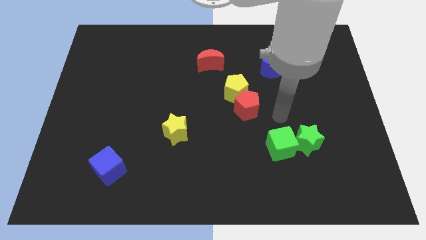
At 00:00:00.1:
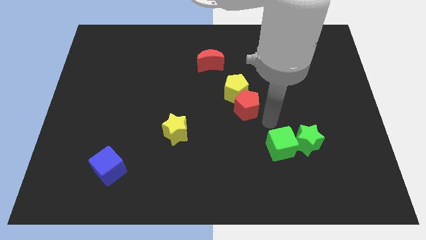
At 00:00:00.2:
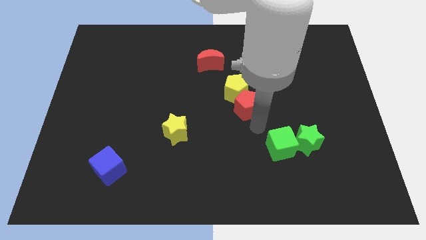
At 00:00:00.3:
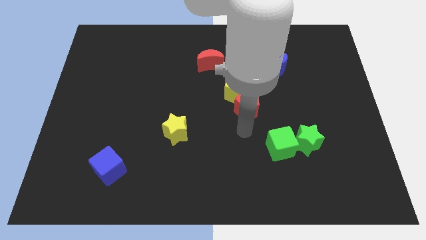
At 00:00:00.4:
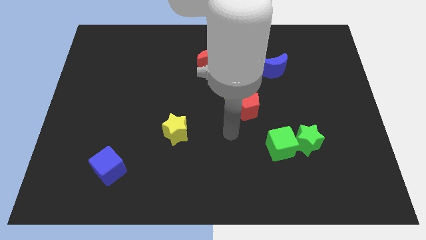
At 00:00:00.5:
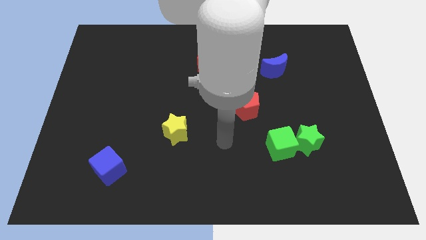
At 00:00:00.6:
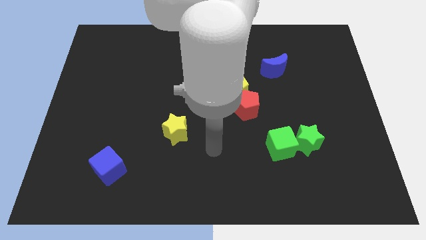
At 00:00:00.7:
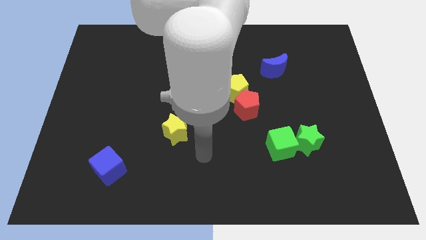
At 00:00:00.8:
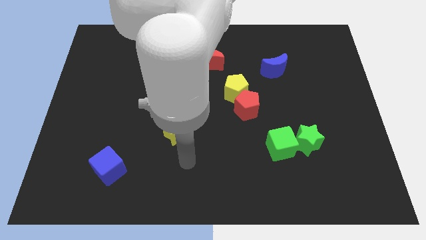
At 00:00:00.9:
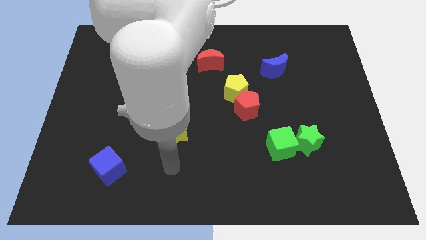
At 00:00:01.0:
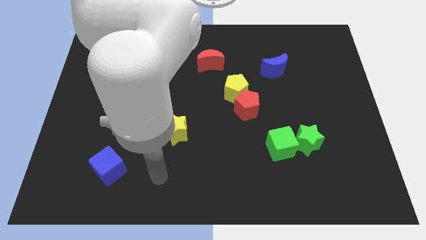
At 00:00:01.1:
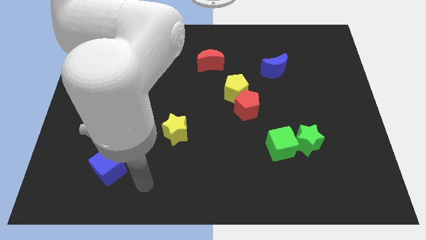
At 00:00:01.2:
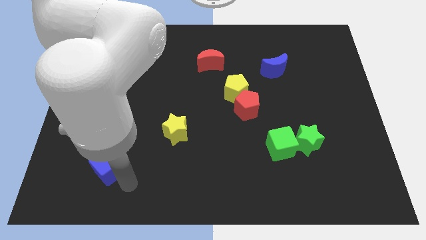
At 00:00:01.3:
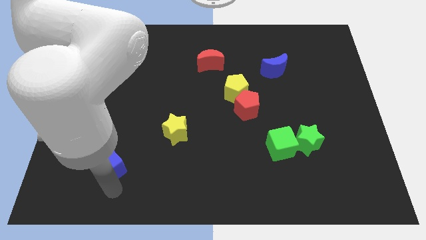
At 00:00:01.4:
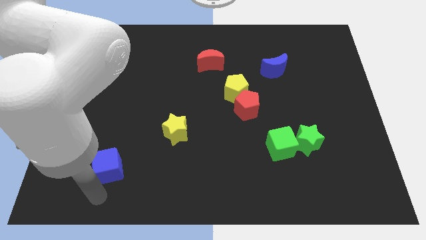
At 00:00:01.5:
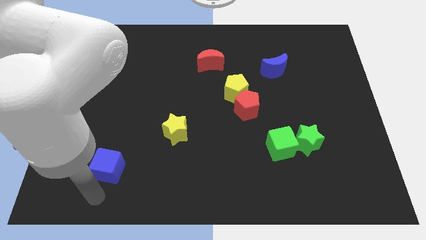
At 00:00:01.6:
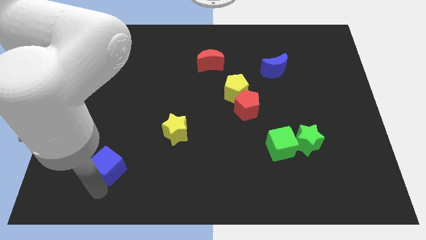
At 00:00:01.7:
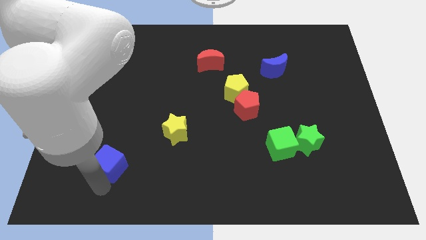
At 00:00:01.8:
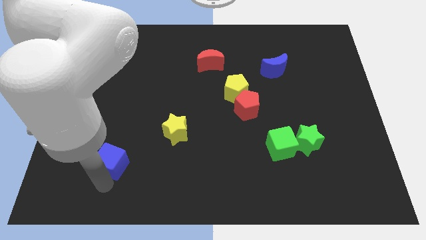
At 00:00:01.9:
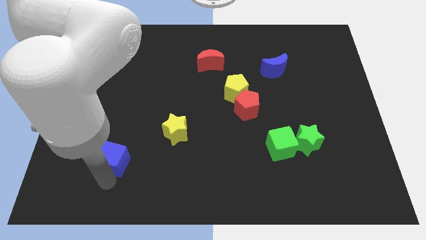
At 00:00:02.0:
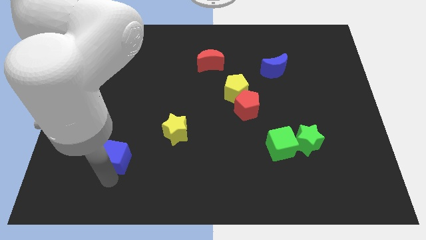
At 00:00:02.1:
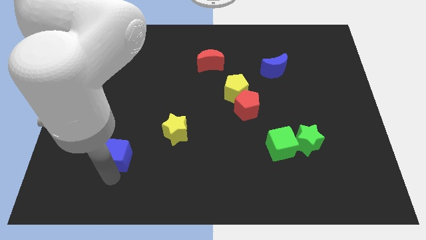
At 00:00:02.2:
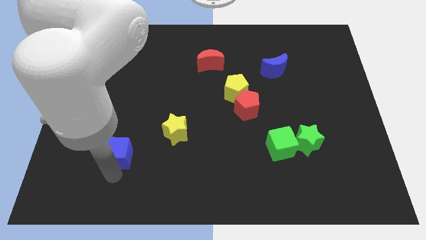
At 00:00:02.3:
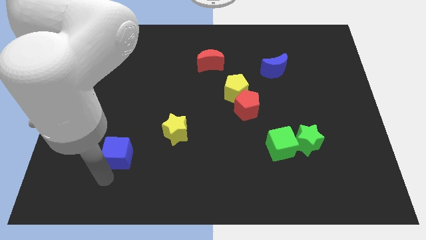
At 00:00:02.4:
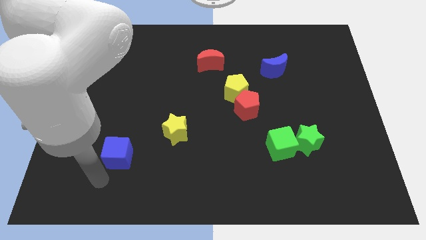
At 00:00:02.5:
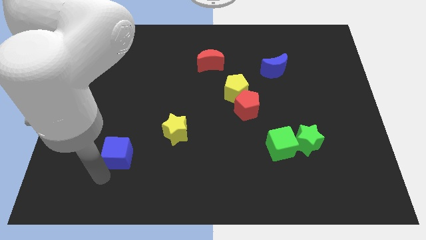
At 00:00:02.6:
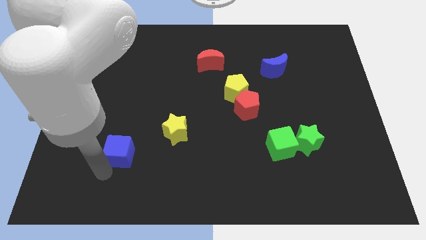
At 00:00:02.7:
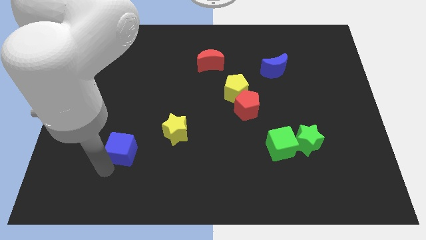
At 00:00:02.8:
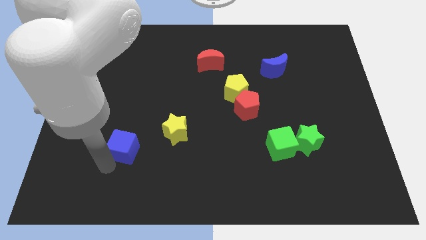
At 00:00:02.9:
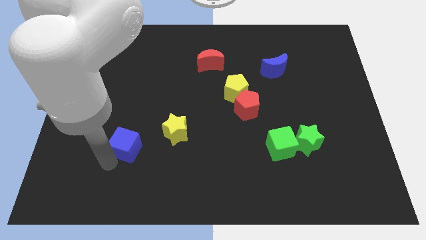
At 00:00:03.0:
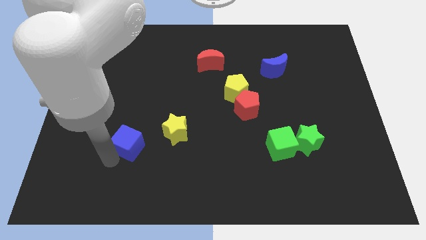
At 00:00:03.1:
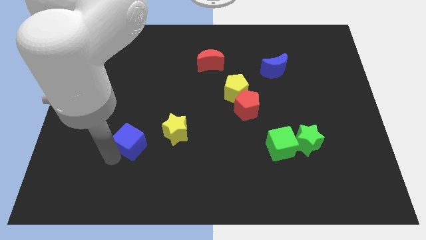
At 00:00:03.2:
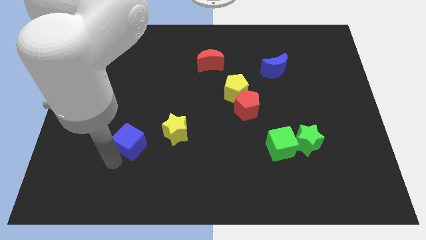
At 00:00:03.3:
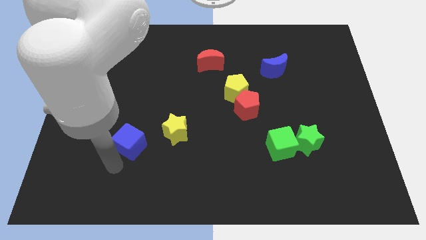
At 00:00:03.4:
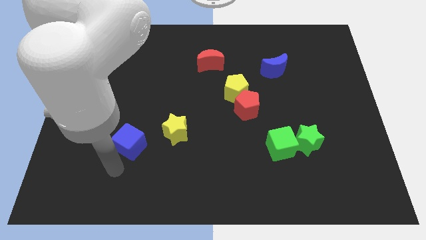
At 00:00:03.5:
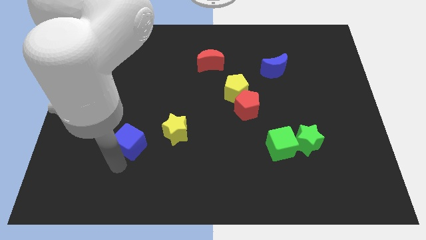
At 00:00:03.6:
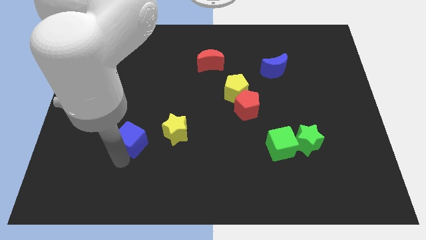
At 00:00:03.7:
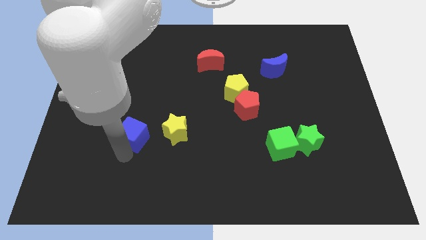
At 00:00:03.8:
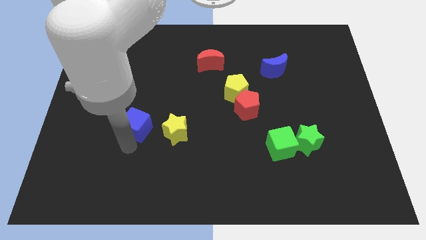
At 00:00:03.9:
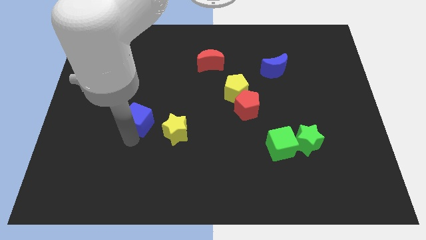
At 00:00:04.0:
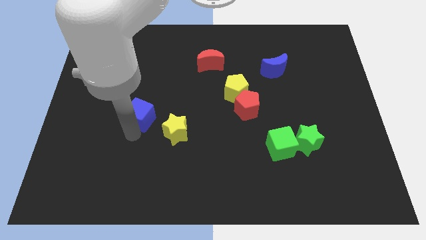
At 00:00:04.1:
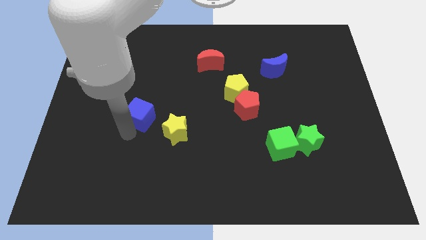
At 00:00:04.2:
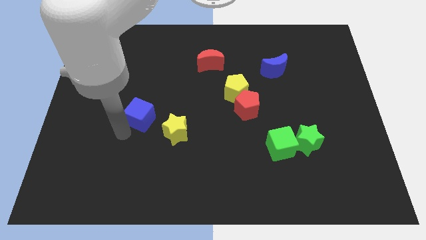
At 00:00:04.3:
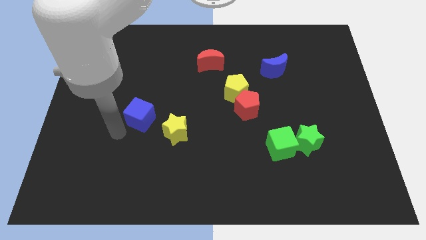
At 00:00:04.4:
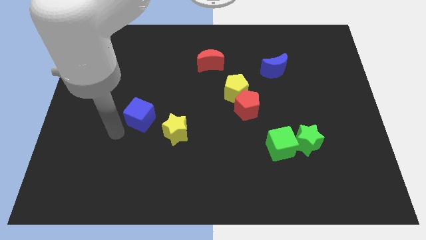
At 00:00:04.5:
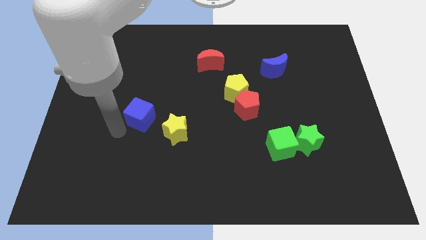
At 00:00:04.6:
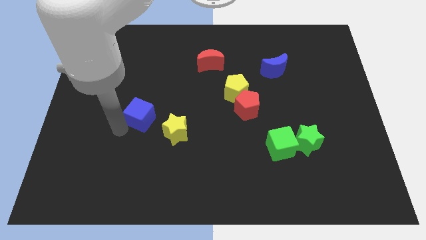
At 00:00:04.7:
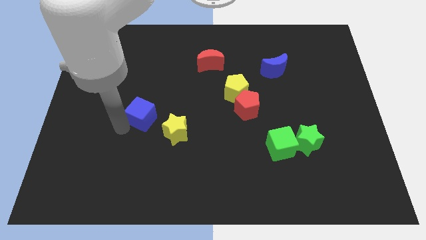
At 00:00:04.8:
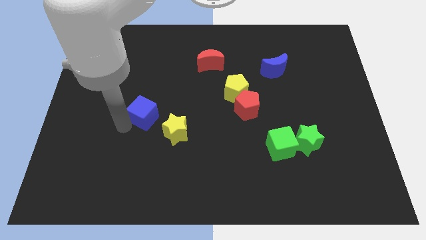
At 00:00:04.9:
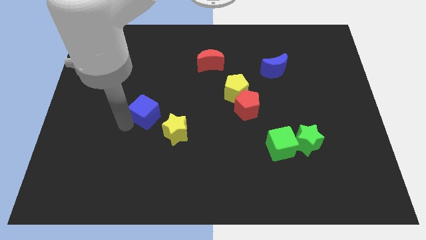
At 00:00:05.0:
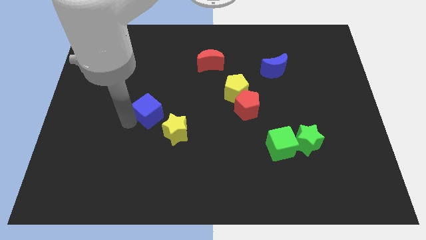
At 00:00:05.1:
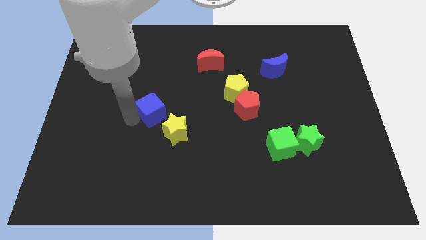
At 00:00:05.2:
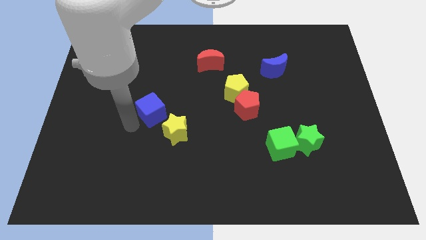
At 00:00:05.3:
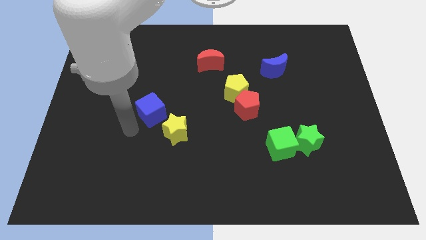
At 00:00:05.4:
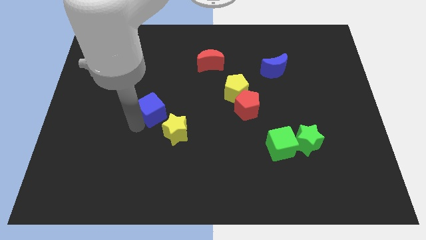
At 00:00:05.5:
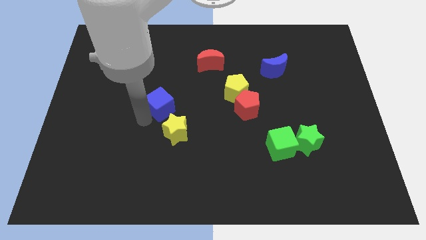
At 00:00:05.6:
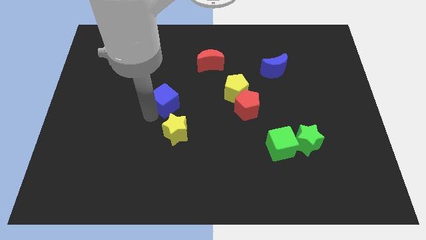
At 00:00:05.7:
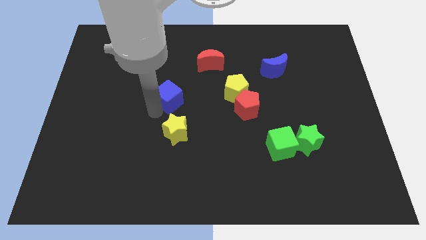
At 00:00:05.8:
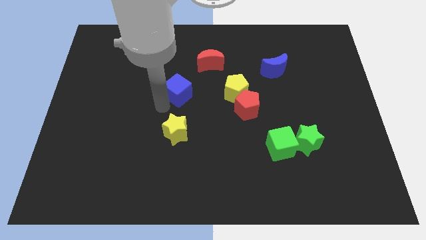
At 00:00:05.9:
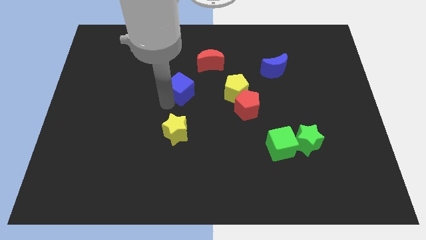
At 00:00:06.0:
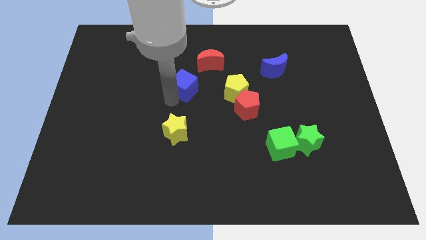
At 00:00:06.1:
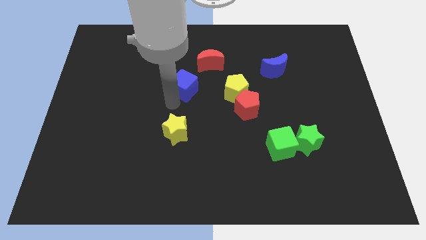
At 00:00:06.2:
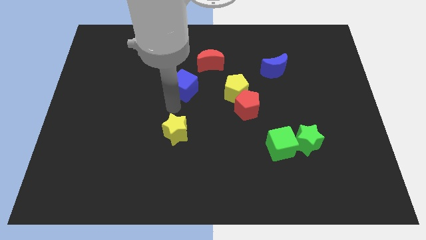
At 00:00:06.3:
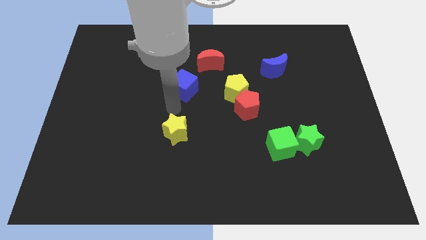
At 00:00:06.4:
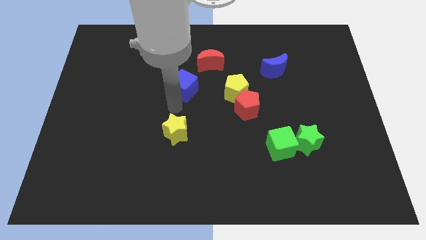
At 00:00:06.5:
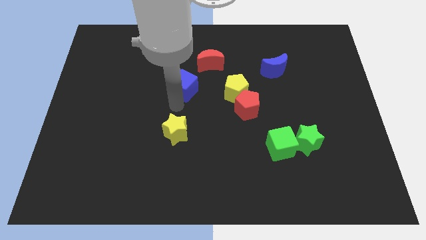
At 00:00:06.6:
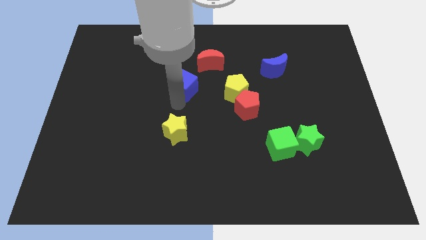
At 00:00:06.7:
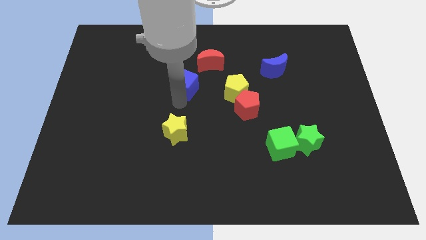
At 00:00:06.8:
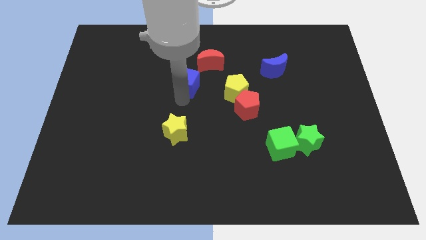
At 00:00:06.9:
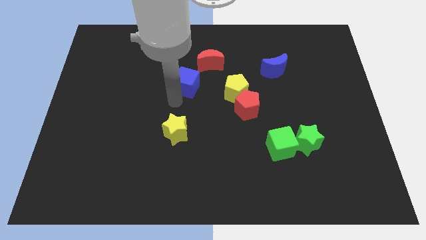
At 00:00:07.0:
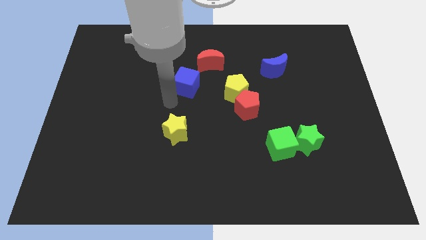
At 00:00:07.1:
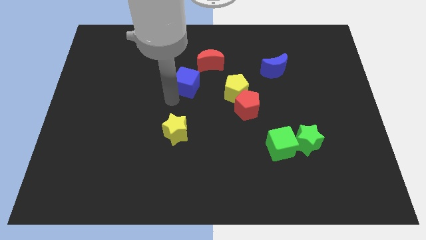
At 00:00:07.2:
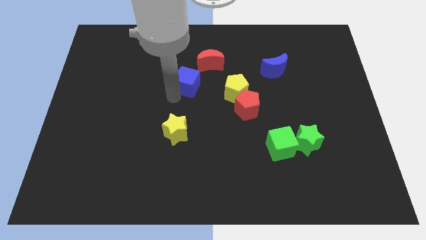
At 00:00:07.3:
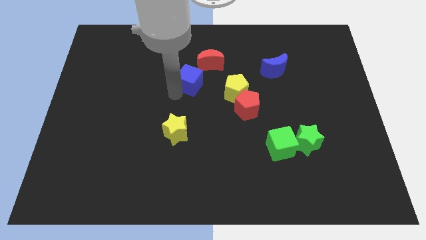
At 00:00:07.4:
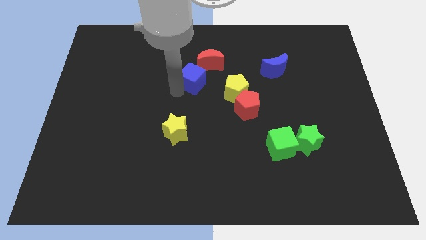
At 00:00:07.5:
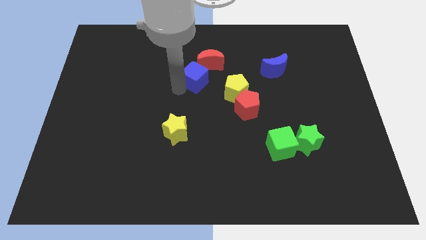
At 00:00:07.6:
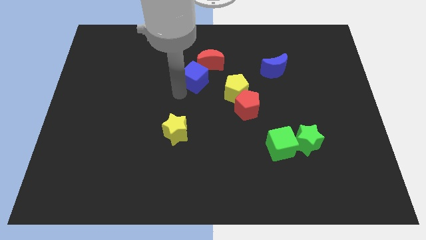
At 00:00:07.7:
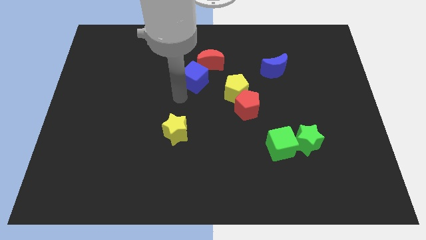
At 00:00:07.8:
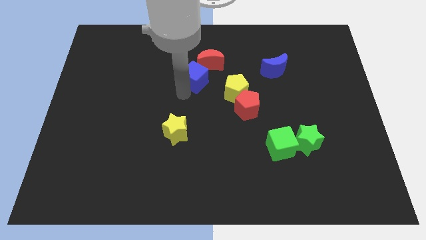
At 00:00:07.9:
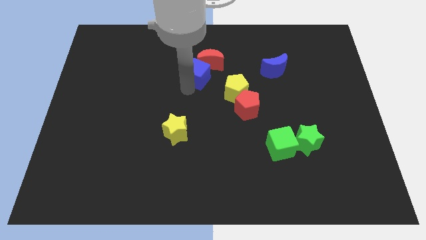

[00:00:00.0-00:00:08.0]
slide the blue cube towards the red moon
